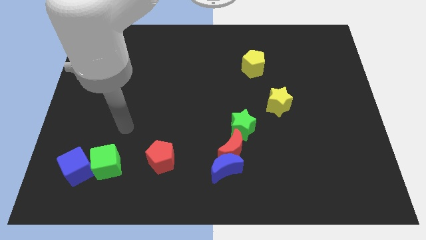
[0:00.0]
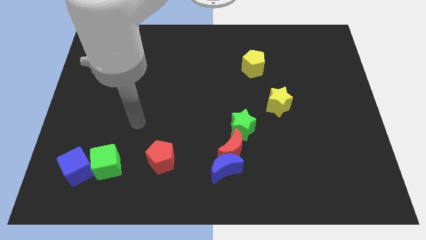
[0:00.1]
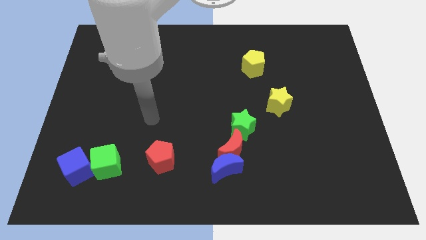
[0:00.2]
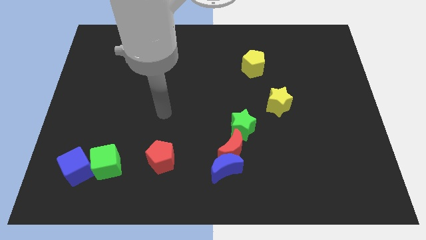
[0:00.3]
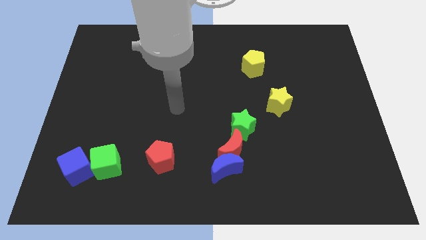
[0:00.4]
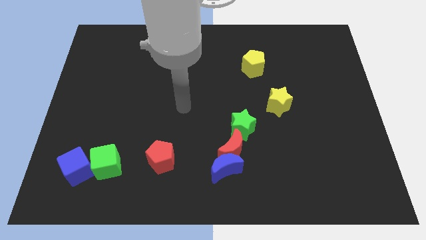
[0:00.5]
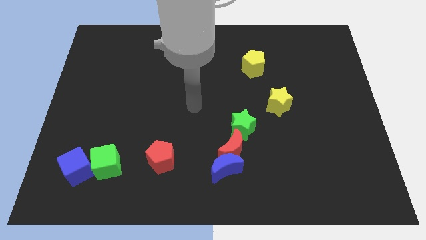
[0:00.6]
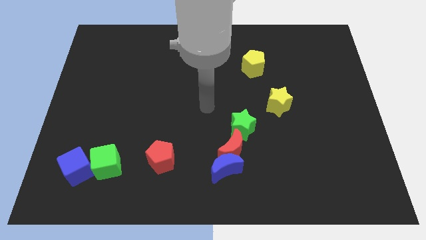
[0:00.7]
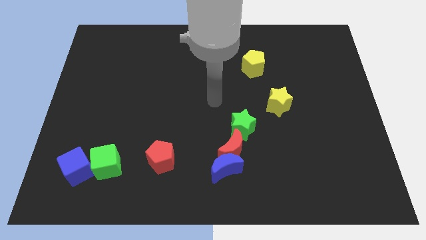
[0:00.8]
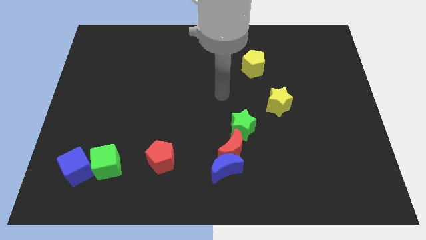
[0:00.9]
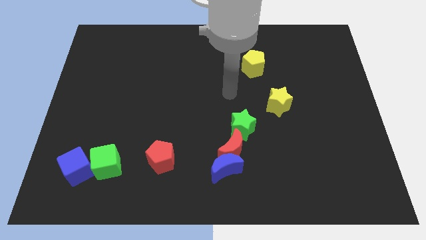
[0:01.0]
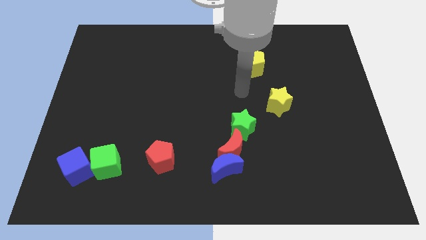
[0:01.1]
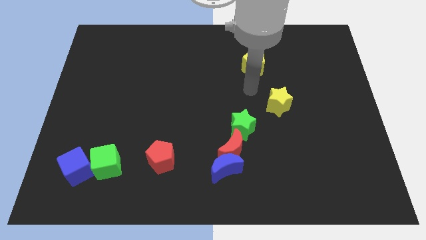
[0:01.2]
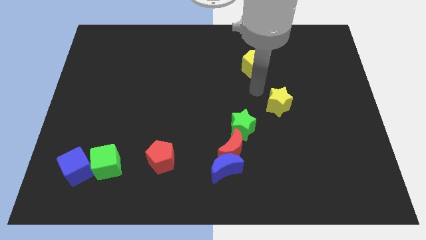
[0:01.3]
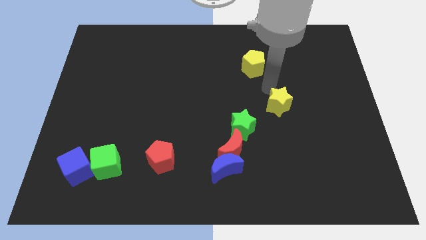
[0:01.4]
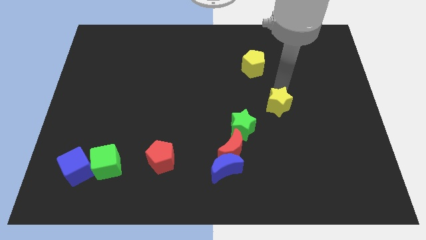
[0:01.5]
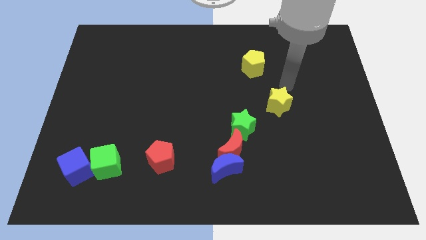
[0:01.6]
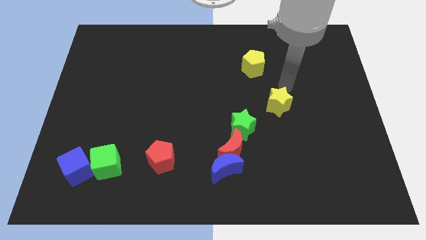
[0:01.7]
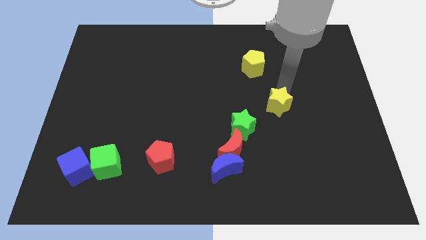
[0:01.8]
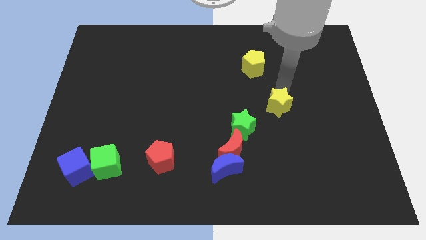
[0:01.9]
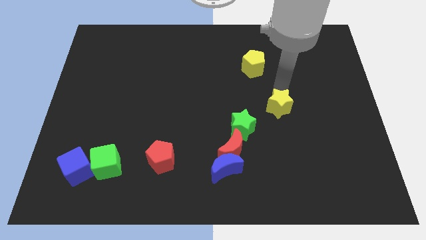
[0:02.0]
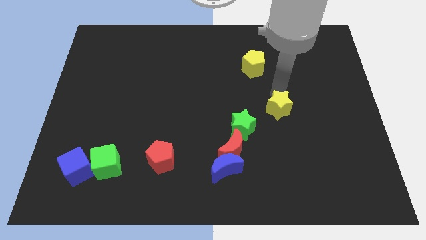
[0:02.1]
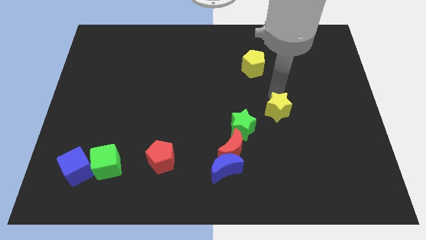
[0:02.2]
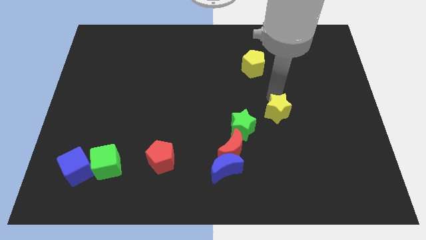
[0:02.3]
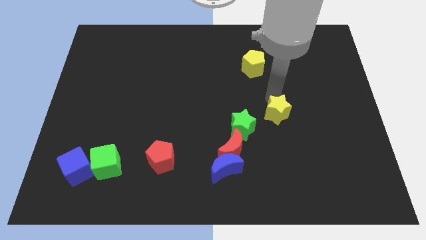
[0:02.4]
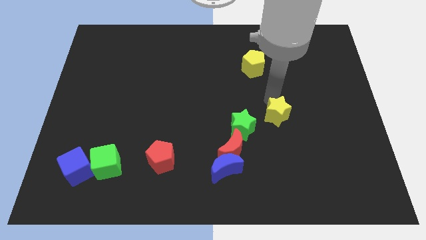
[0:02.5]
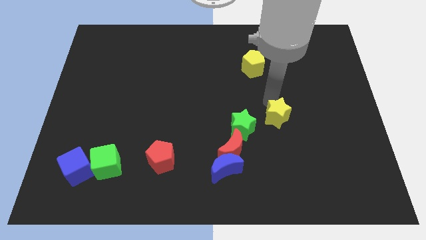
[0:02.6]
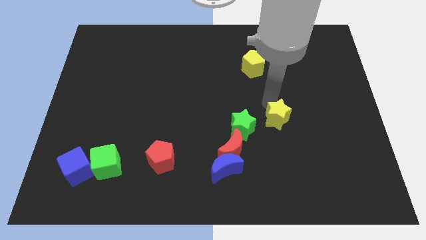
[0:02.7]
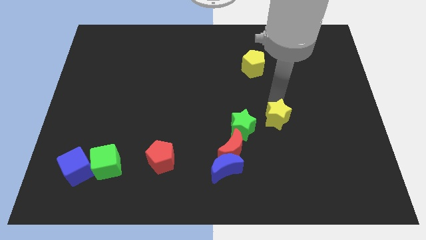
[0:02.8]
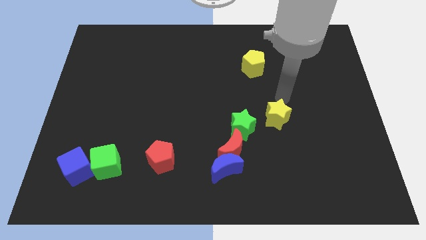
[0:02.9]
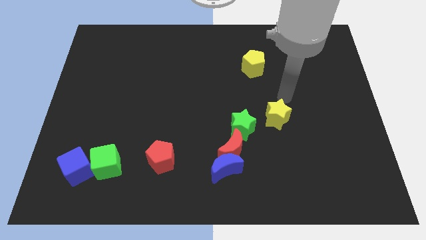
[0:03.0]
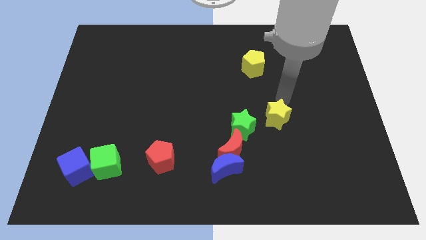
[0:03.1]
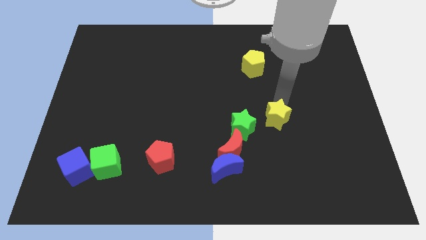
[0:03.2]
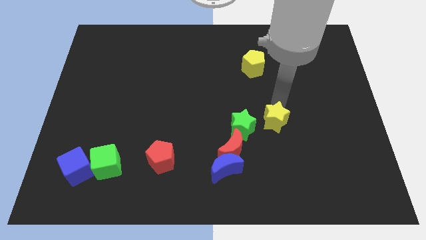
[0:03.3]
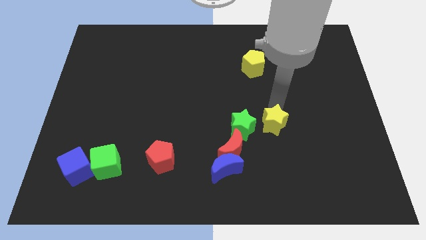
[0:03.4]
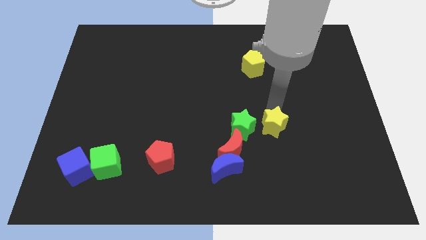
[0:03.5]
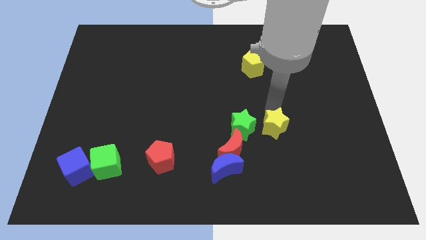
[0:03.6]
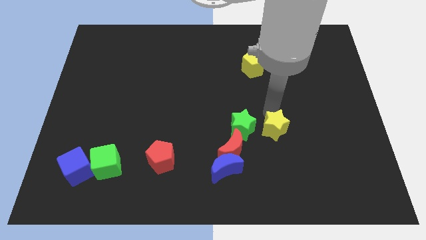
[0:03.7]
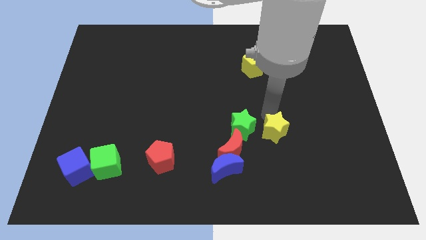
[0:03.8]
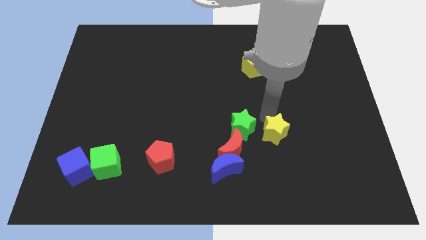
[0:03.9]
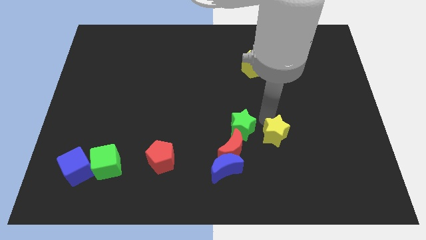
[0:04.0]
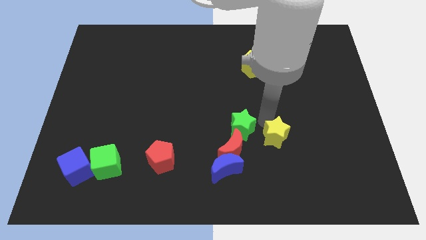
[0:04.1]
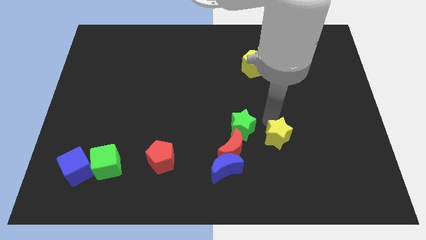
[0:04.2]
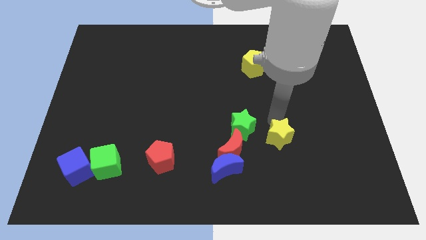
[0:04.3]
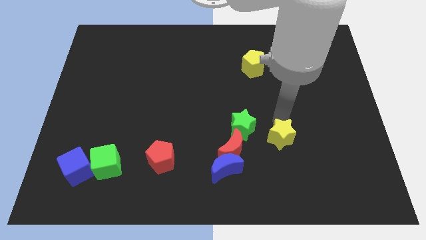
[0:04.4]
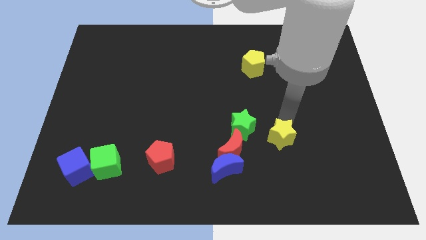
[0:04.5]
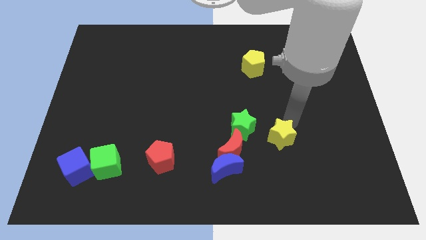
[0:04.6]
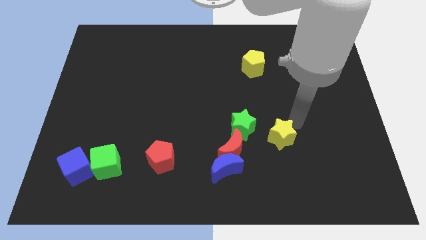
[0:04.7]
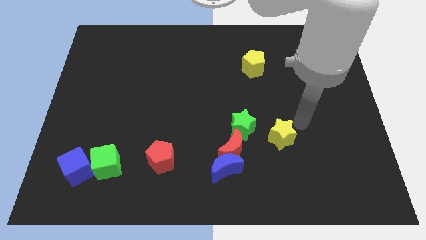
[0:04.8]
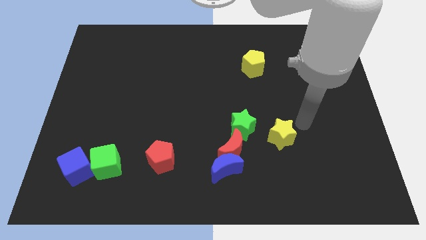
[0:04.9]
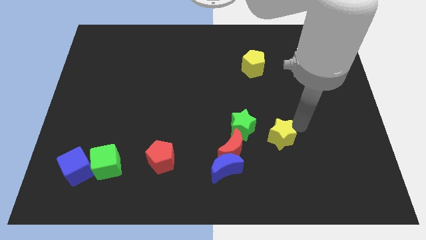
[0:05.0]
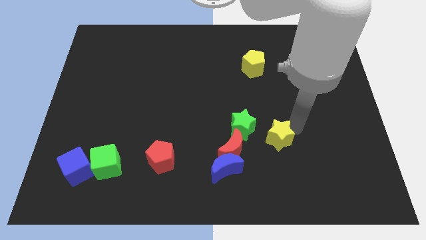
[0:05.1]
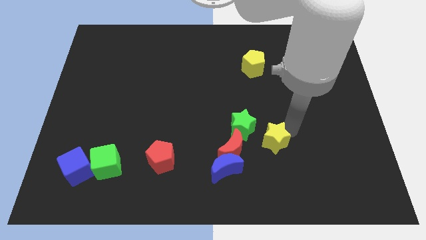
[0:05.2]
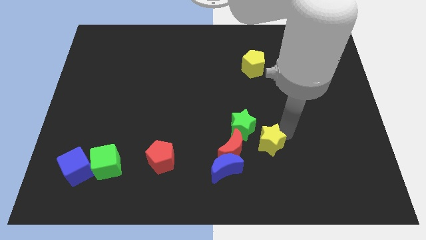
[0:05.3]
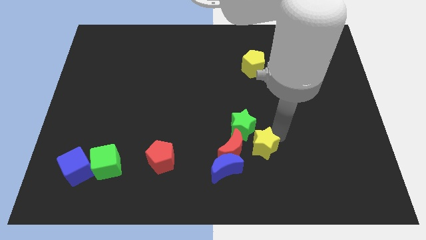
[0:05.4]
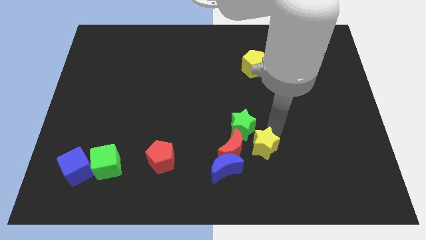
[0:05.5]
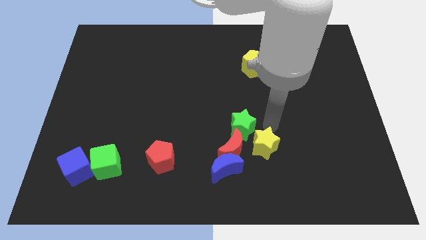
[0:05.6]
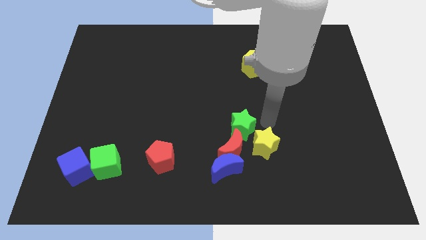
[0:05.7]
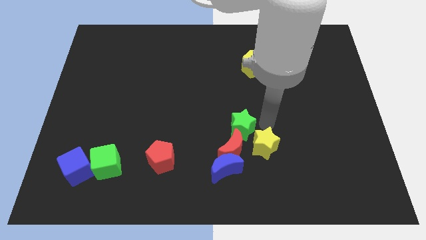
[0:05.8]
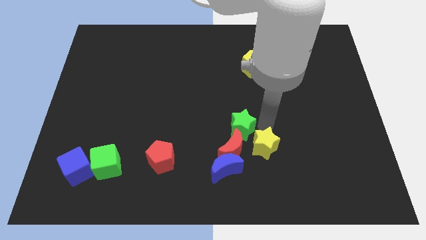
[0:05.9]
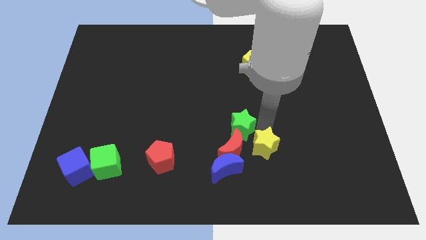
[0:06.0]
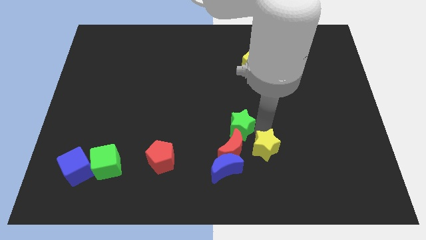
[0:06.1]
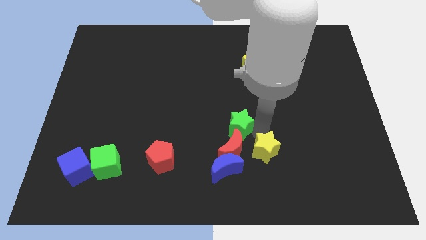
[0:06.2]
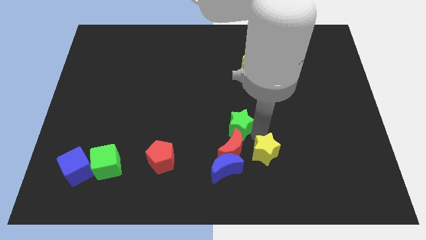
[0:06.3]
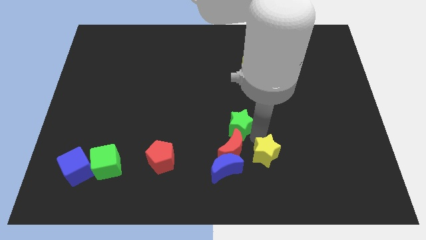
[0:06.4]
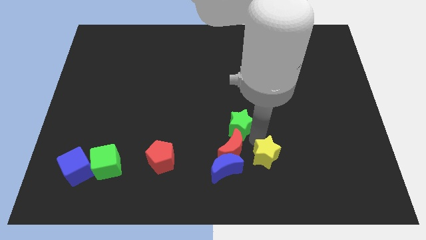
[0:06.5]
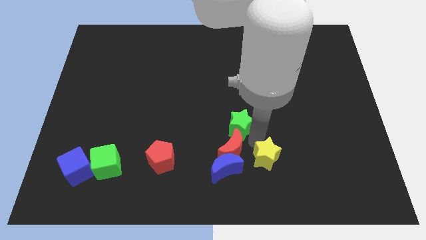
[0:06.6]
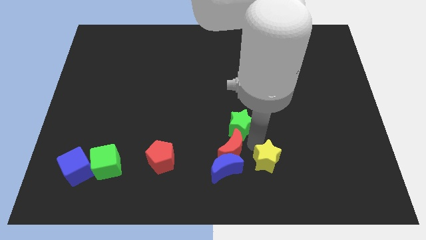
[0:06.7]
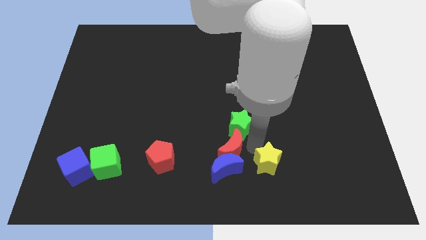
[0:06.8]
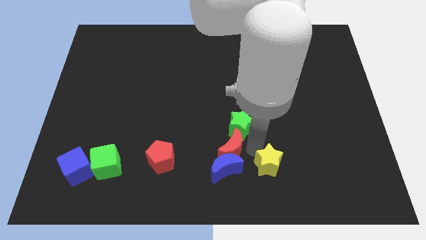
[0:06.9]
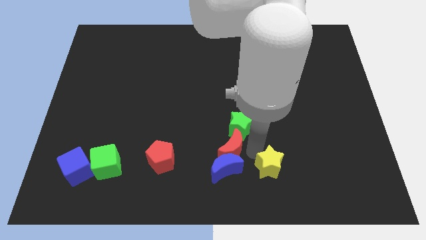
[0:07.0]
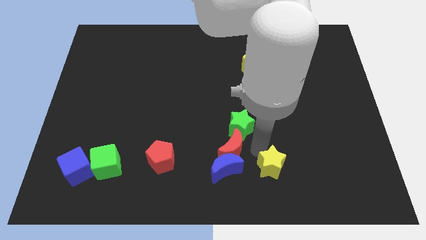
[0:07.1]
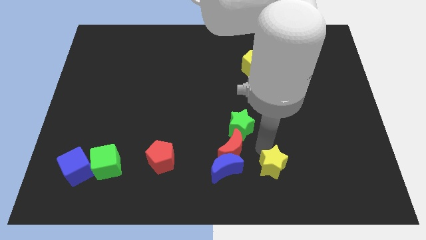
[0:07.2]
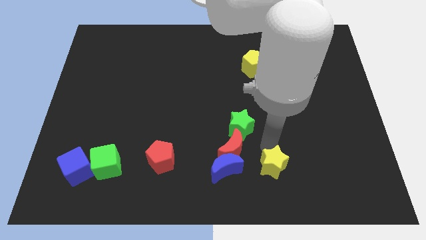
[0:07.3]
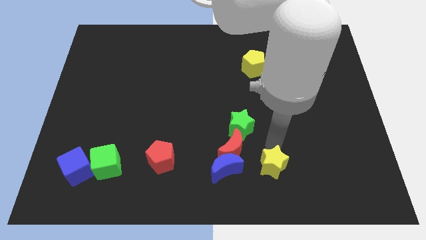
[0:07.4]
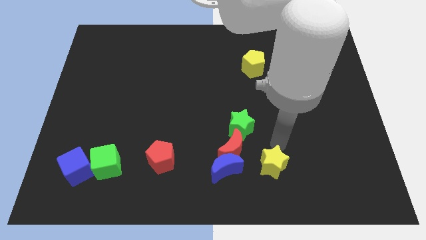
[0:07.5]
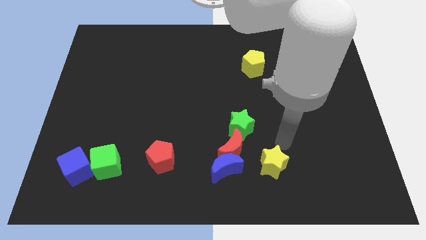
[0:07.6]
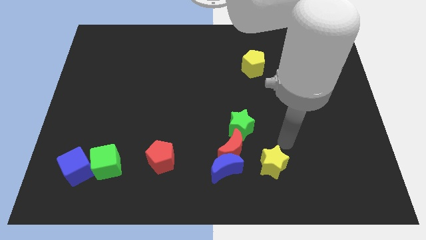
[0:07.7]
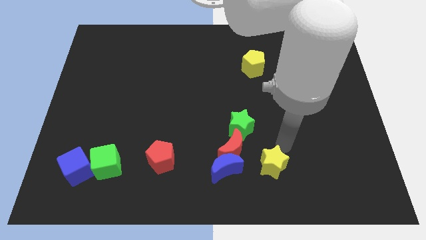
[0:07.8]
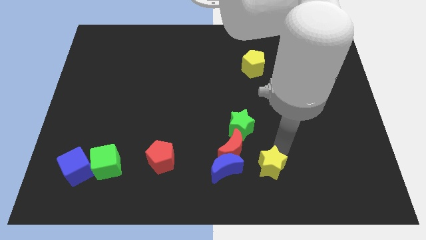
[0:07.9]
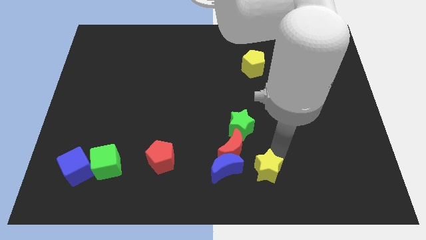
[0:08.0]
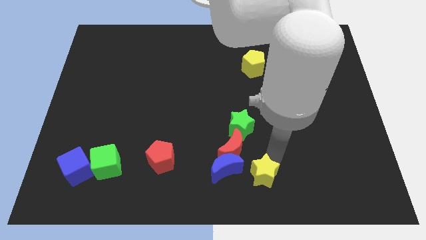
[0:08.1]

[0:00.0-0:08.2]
move the yellow star to the bottom
